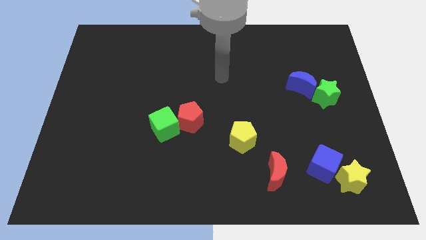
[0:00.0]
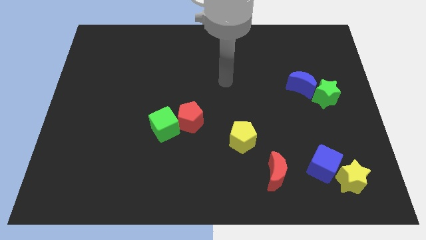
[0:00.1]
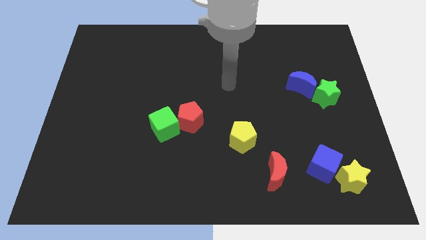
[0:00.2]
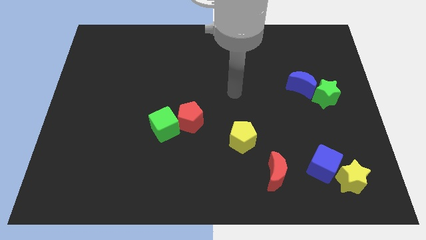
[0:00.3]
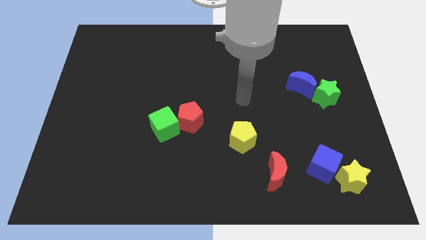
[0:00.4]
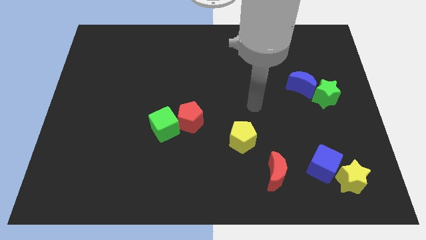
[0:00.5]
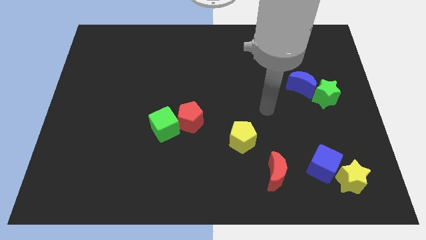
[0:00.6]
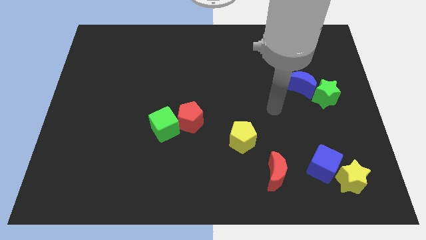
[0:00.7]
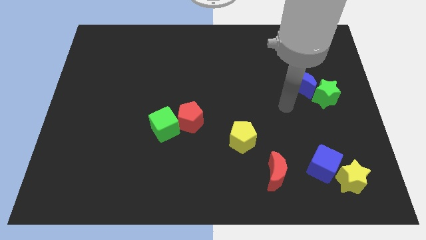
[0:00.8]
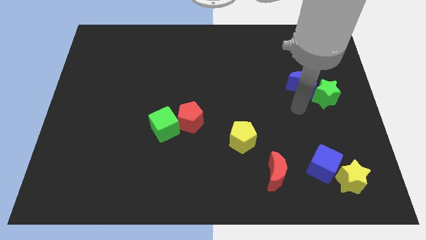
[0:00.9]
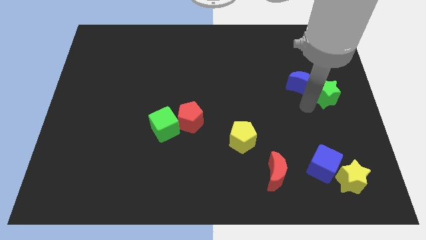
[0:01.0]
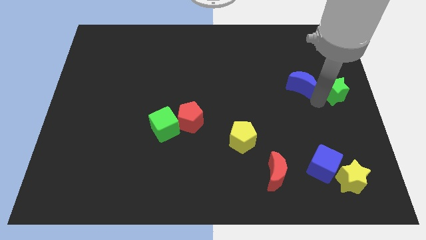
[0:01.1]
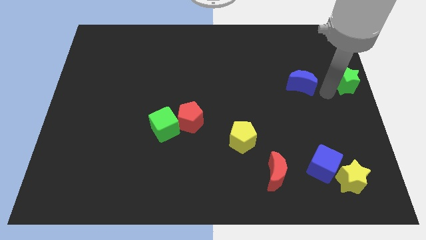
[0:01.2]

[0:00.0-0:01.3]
pull the blue moon apart from the green star

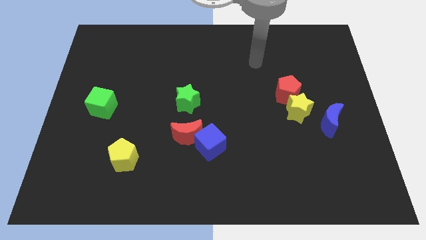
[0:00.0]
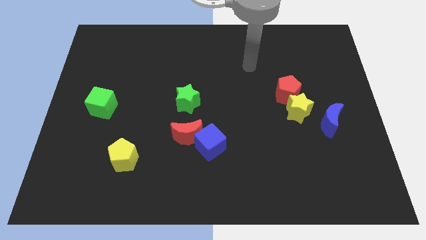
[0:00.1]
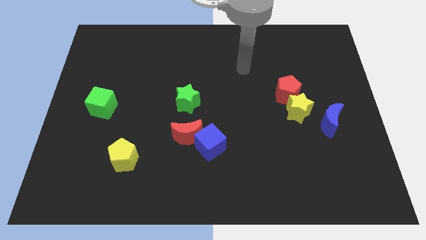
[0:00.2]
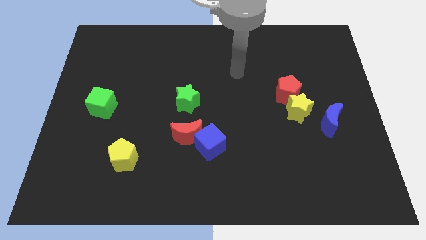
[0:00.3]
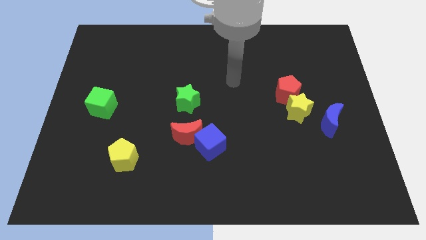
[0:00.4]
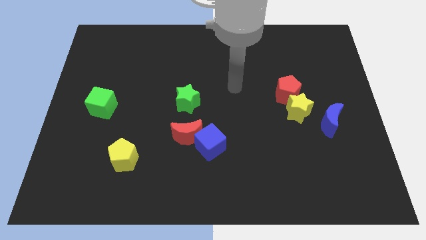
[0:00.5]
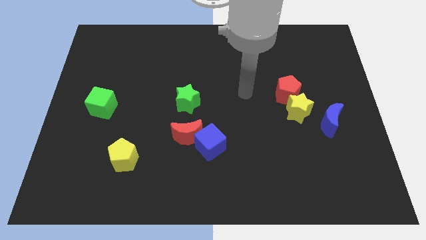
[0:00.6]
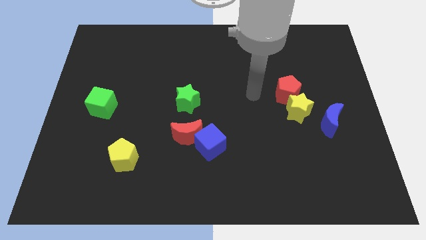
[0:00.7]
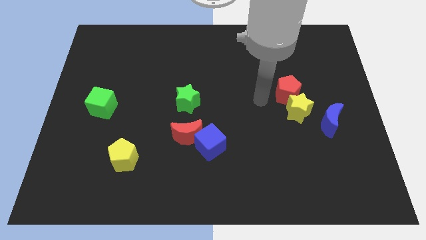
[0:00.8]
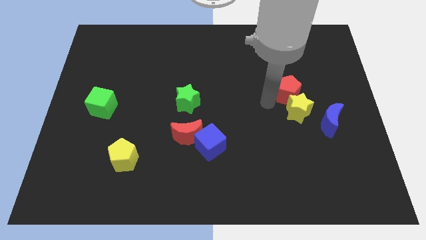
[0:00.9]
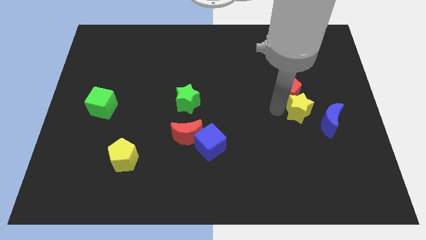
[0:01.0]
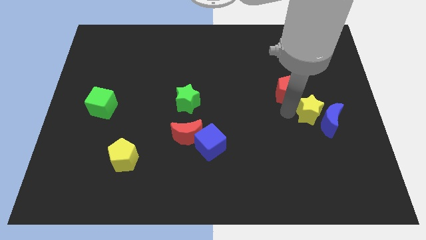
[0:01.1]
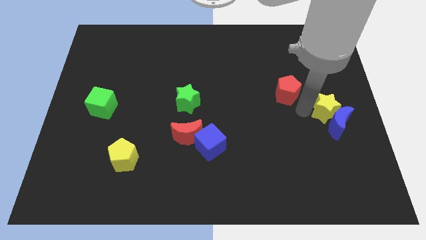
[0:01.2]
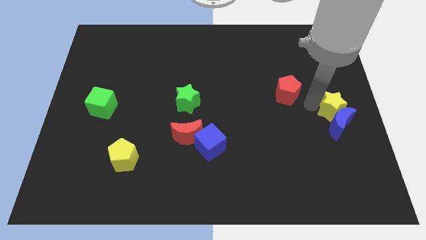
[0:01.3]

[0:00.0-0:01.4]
separate the red pentagon from the yellow star

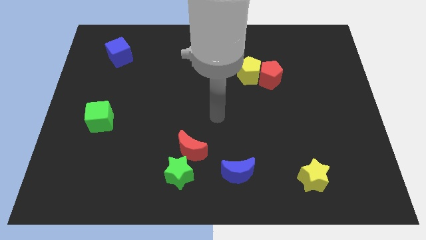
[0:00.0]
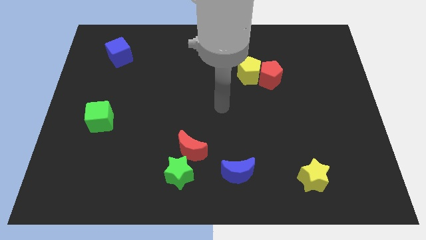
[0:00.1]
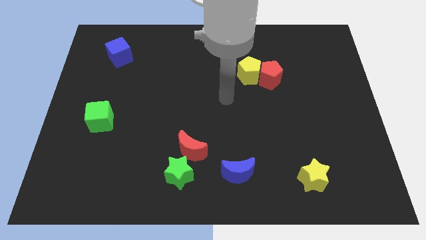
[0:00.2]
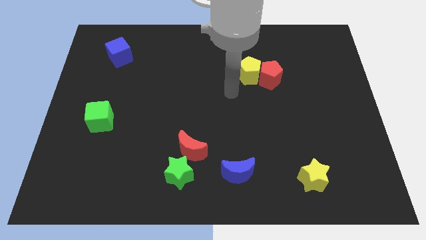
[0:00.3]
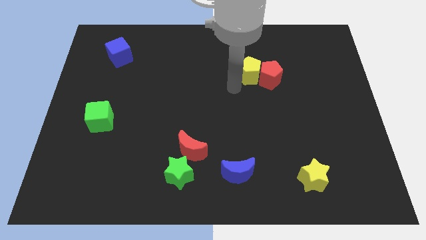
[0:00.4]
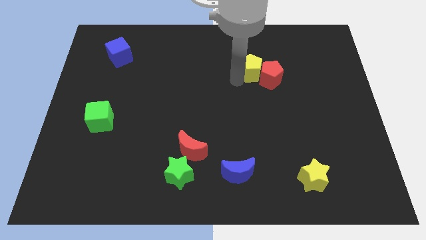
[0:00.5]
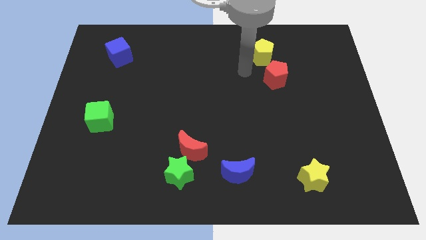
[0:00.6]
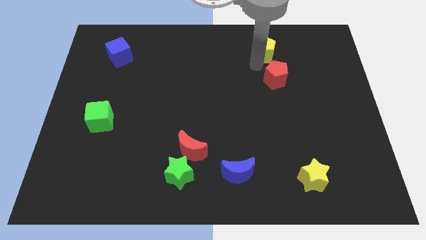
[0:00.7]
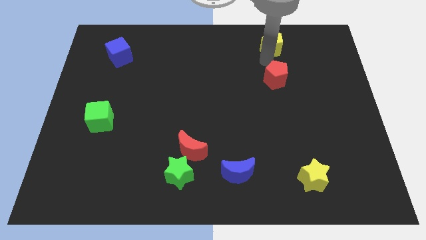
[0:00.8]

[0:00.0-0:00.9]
separate the red pentagon from the yellow pentagon

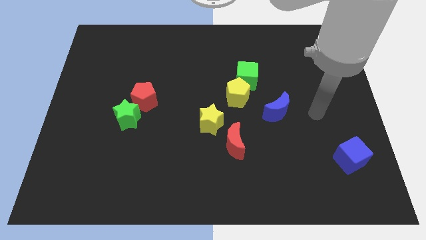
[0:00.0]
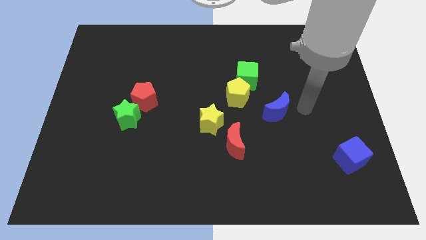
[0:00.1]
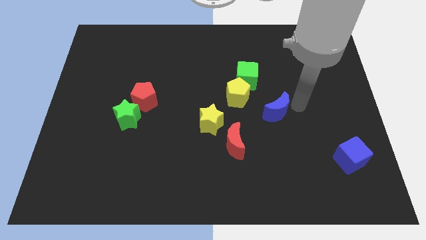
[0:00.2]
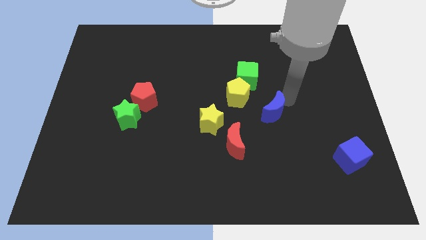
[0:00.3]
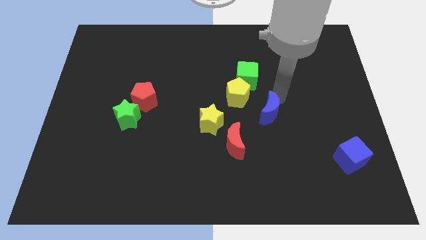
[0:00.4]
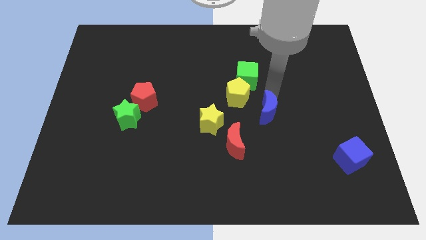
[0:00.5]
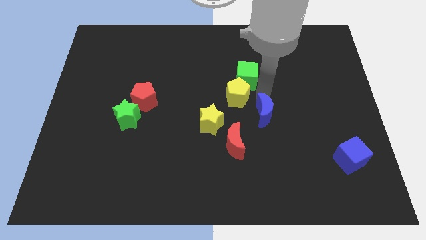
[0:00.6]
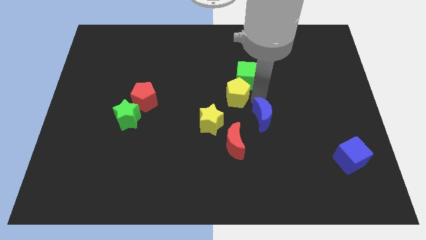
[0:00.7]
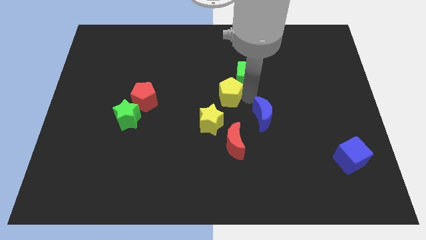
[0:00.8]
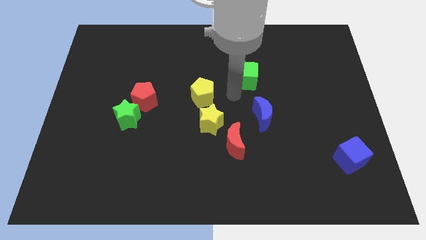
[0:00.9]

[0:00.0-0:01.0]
pull the green cube apart from the yellow pentagon

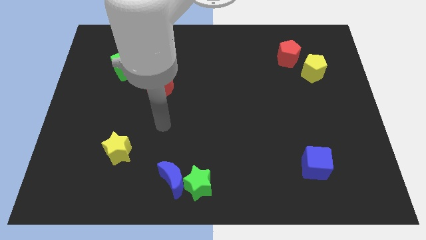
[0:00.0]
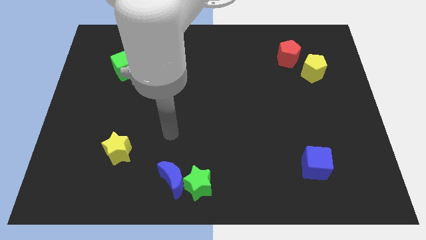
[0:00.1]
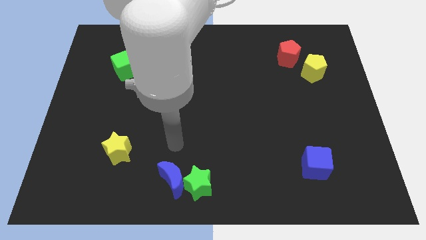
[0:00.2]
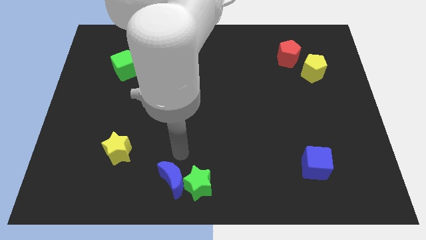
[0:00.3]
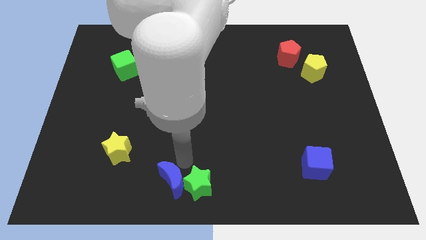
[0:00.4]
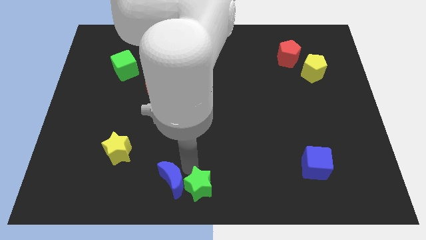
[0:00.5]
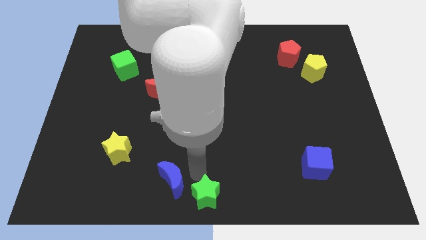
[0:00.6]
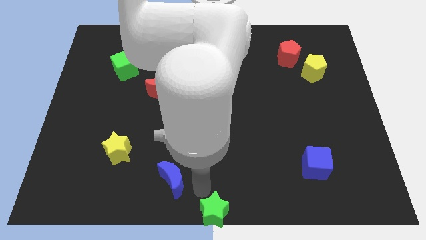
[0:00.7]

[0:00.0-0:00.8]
move the blue moon away from the green star

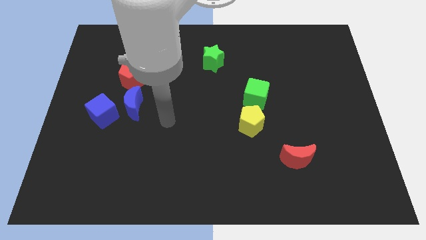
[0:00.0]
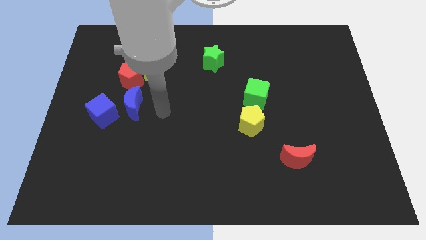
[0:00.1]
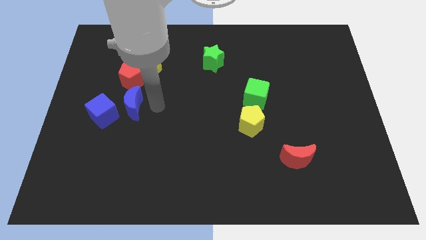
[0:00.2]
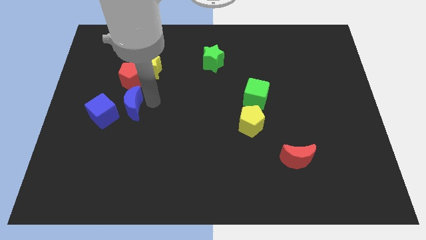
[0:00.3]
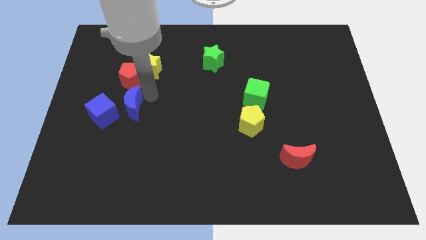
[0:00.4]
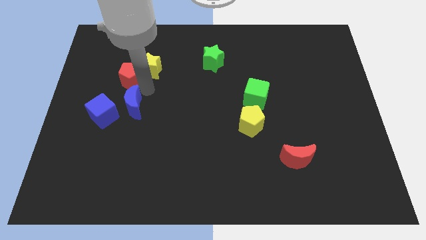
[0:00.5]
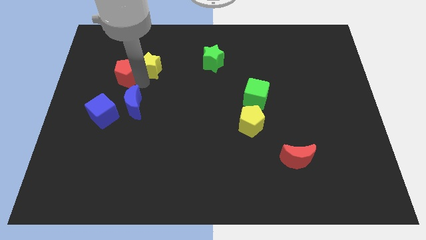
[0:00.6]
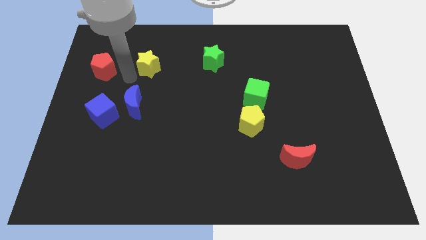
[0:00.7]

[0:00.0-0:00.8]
separate the yellow star from the red pentagon

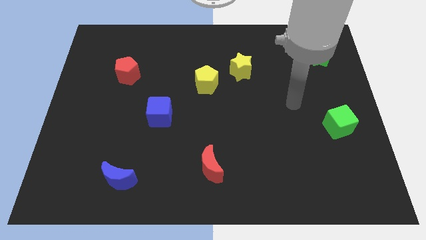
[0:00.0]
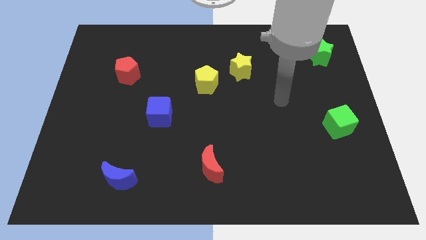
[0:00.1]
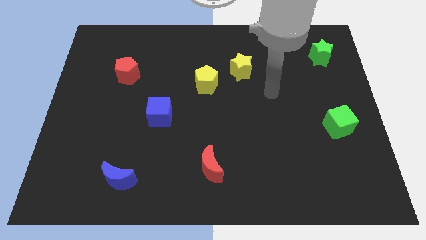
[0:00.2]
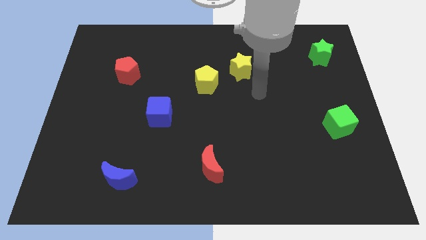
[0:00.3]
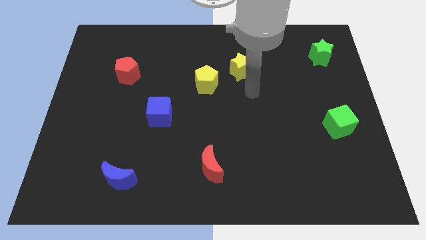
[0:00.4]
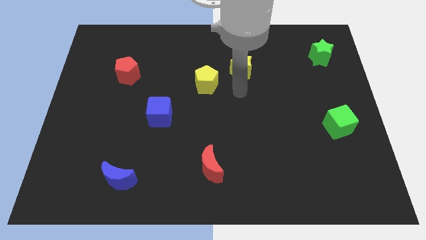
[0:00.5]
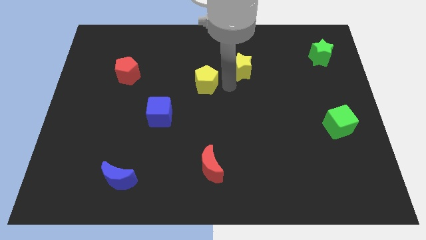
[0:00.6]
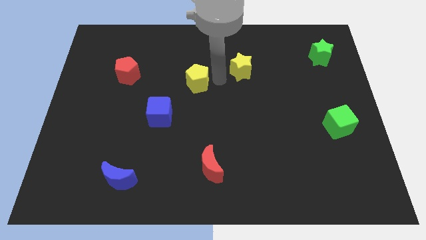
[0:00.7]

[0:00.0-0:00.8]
separate the yellow star from the yellow pentagon

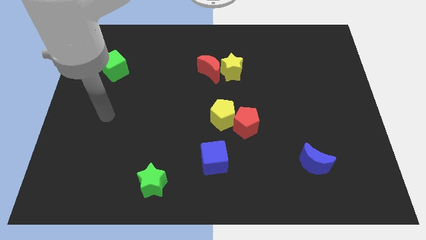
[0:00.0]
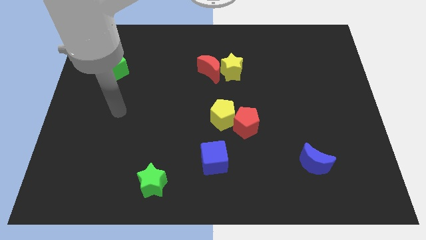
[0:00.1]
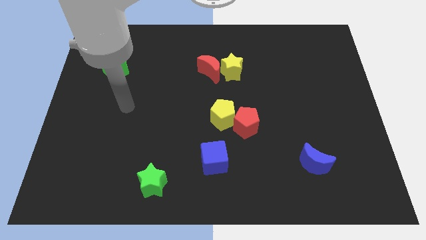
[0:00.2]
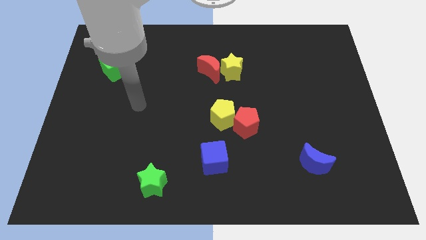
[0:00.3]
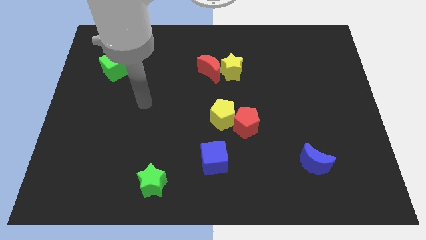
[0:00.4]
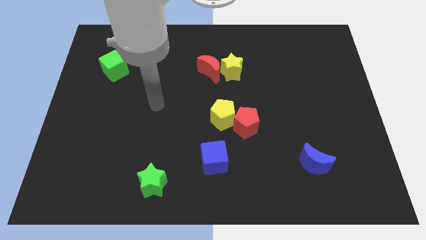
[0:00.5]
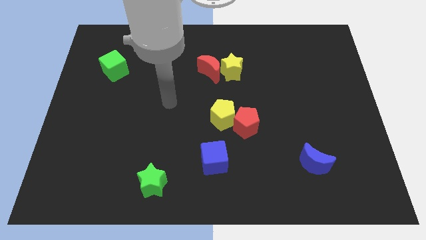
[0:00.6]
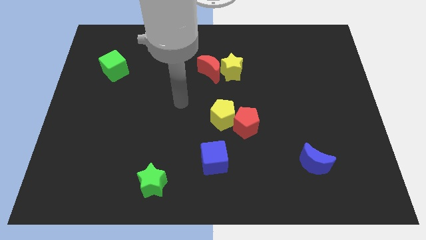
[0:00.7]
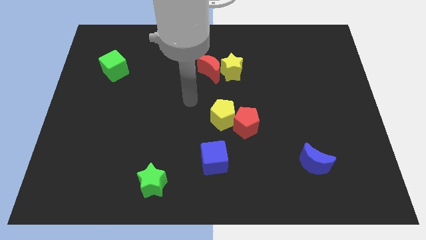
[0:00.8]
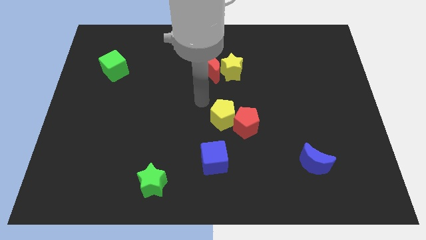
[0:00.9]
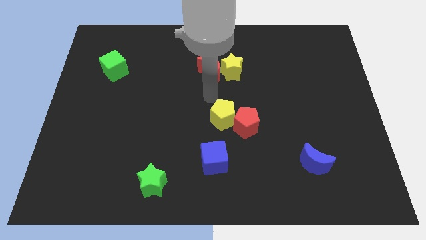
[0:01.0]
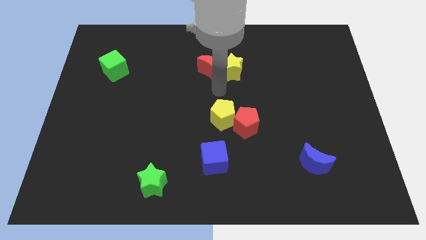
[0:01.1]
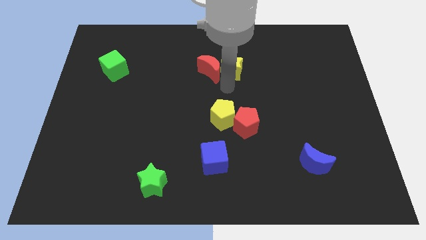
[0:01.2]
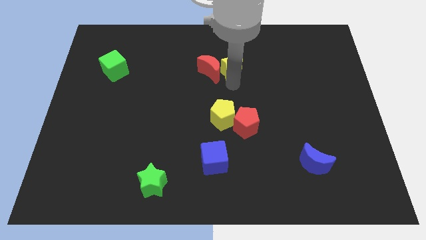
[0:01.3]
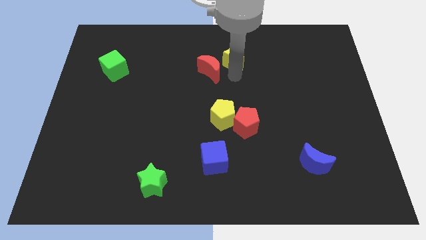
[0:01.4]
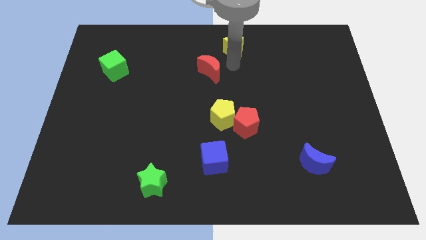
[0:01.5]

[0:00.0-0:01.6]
separate the red moon from the yellow star

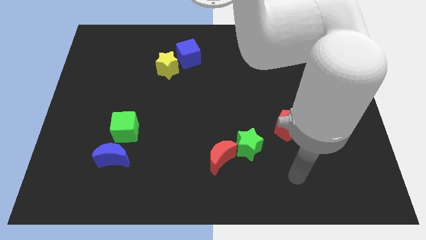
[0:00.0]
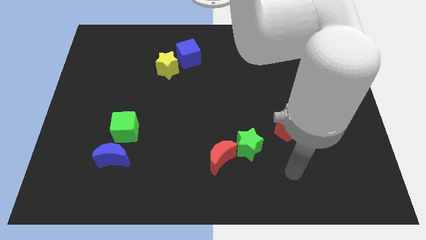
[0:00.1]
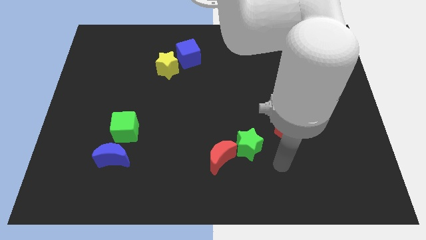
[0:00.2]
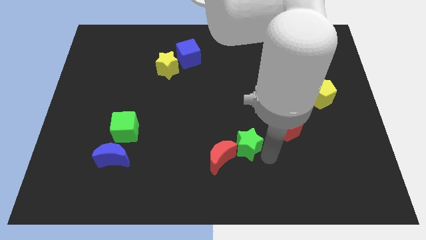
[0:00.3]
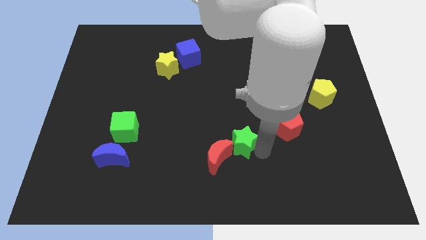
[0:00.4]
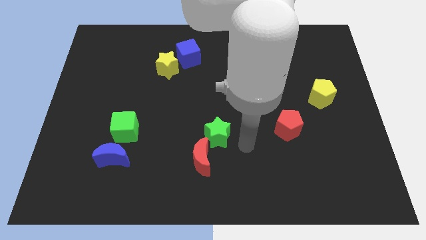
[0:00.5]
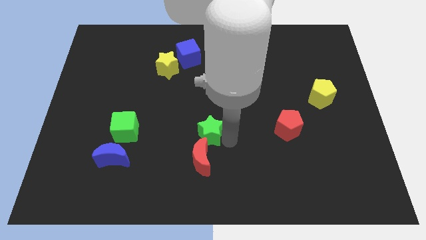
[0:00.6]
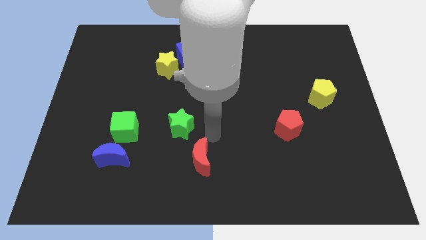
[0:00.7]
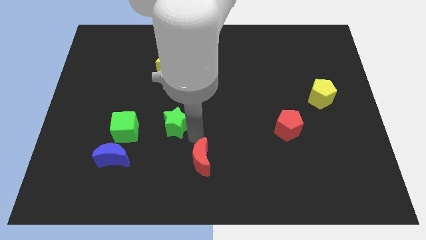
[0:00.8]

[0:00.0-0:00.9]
separate the red moon from the green star
